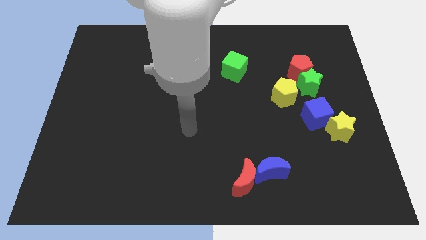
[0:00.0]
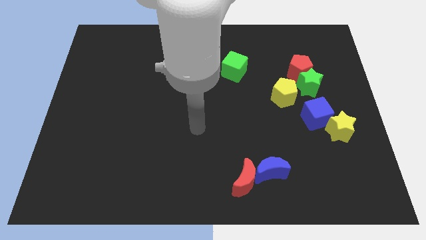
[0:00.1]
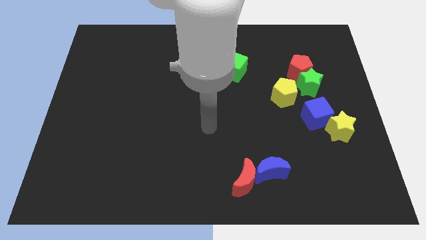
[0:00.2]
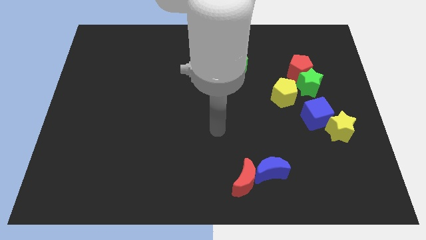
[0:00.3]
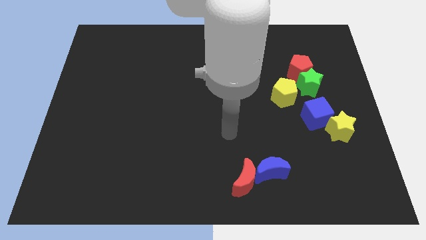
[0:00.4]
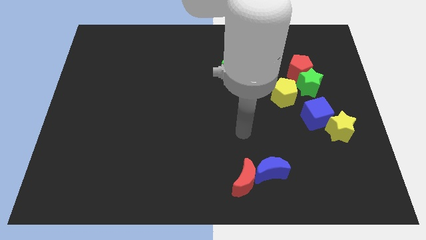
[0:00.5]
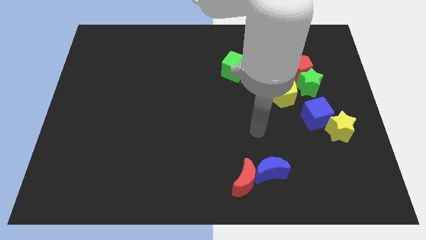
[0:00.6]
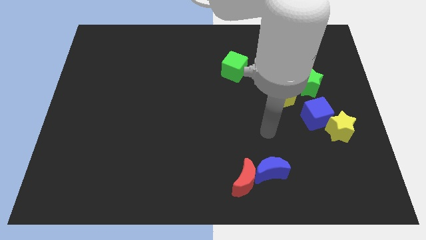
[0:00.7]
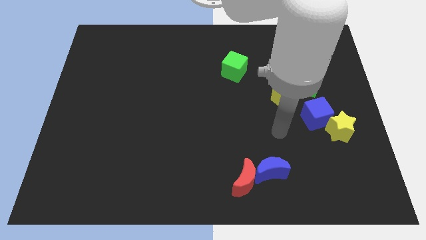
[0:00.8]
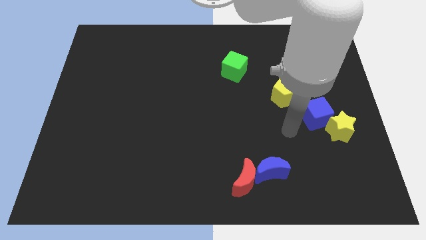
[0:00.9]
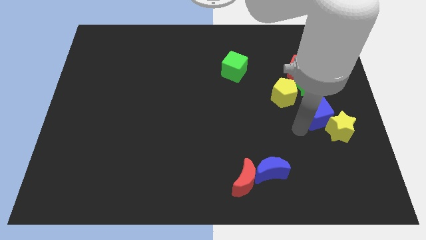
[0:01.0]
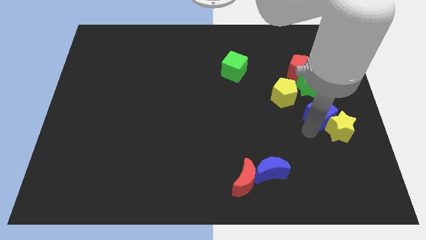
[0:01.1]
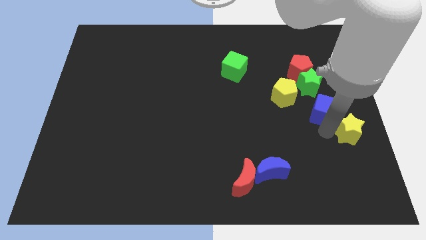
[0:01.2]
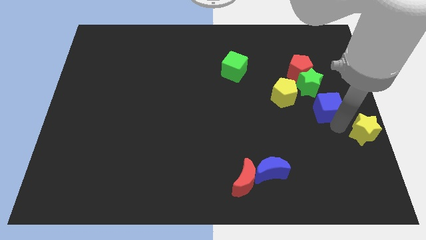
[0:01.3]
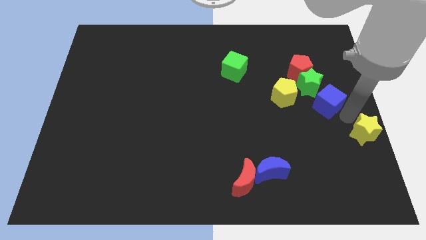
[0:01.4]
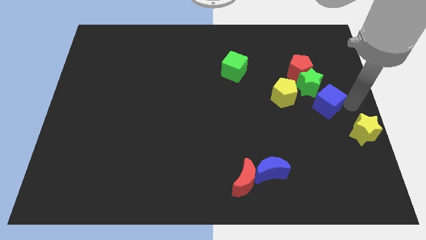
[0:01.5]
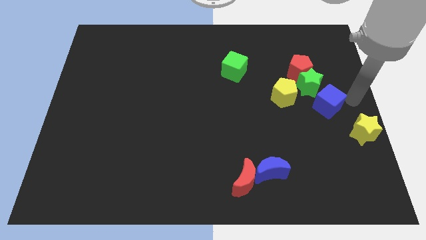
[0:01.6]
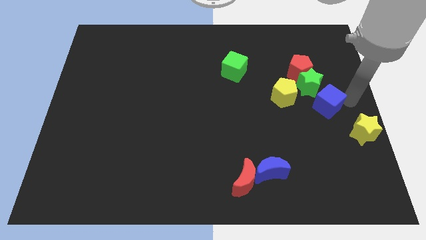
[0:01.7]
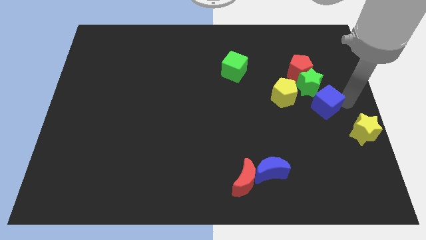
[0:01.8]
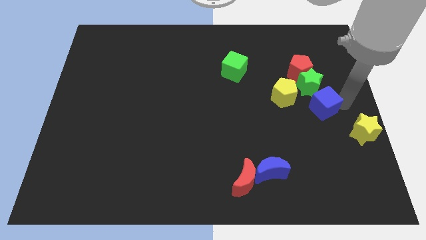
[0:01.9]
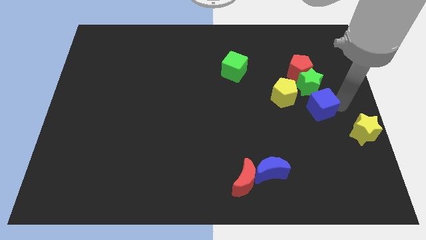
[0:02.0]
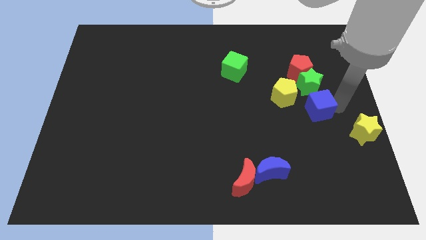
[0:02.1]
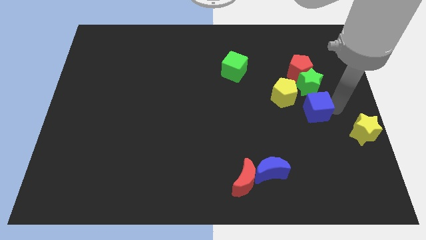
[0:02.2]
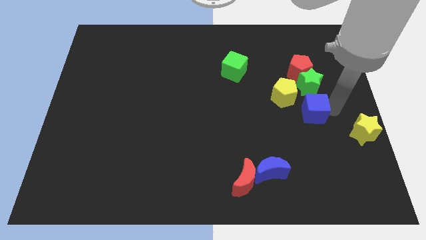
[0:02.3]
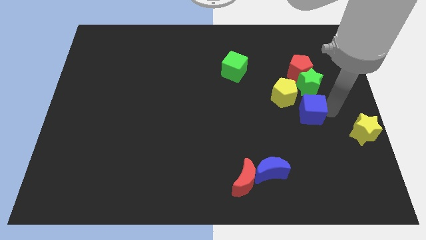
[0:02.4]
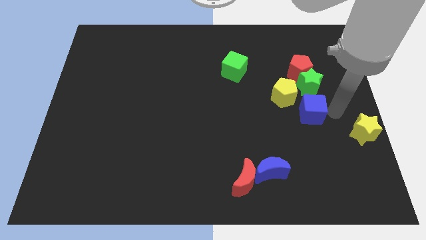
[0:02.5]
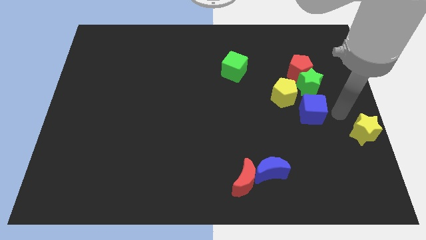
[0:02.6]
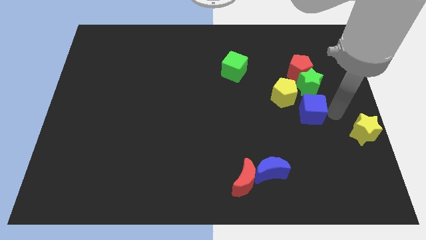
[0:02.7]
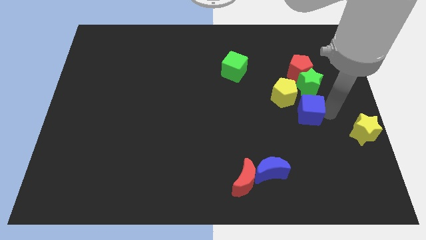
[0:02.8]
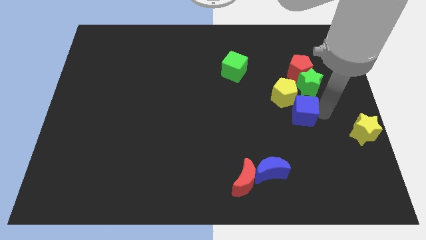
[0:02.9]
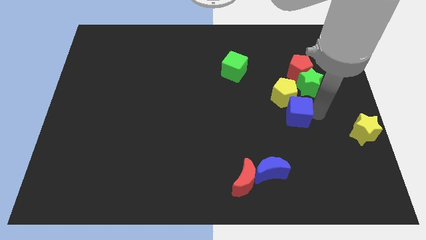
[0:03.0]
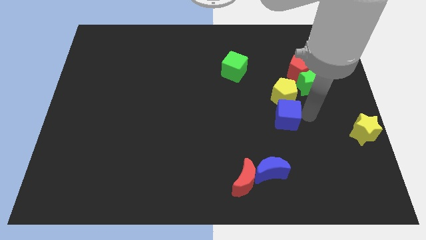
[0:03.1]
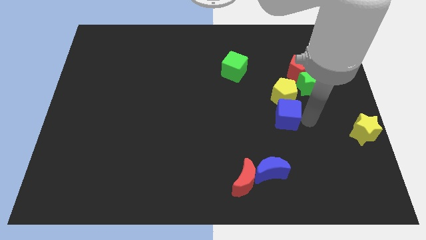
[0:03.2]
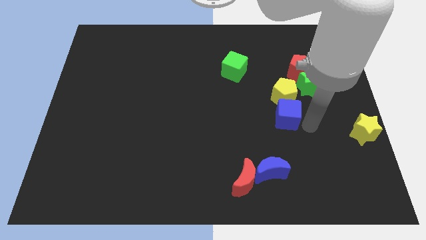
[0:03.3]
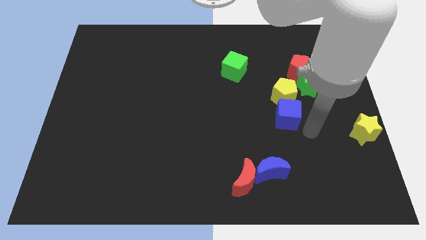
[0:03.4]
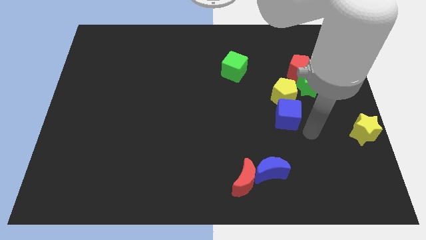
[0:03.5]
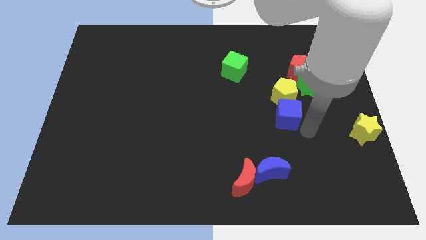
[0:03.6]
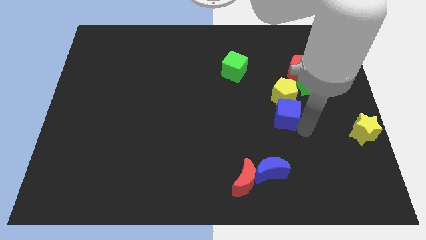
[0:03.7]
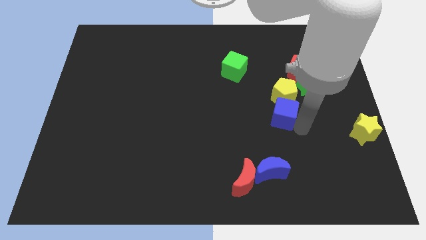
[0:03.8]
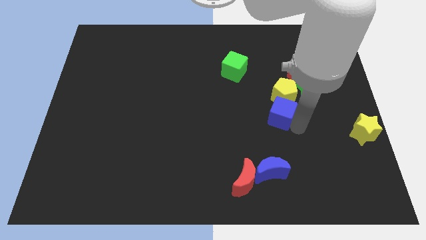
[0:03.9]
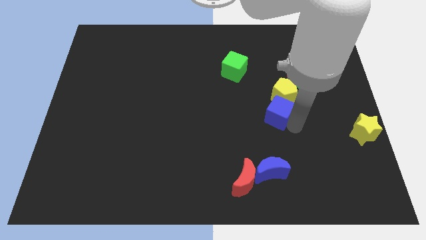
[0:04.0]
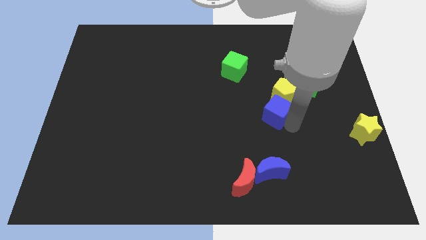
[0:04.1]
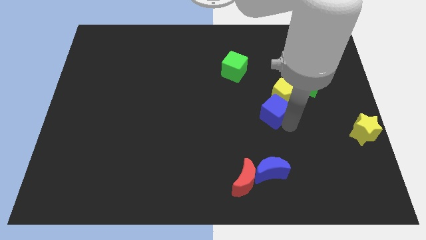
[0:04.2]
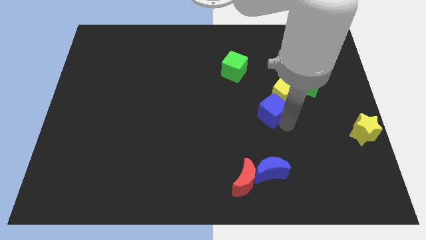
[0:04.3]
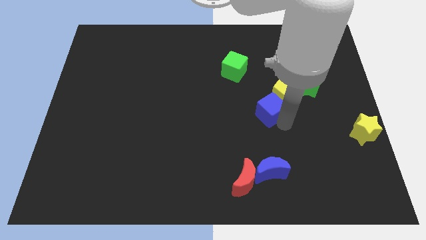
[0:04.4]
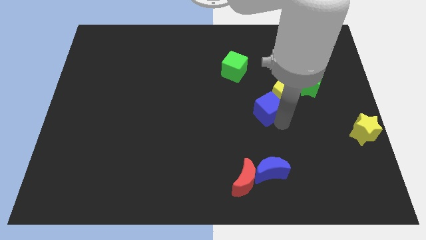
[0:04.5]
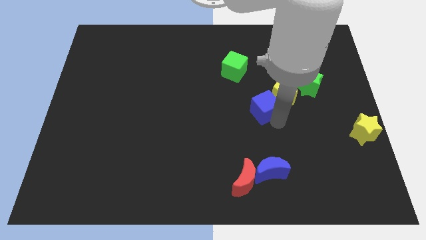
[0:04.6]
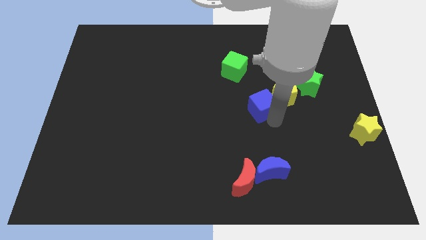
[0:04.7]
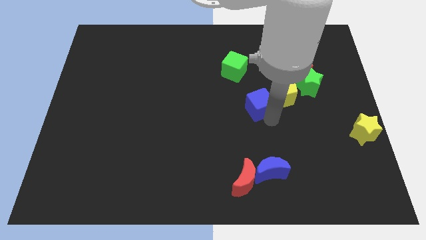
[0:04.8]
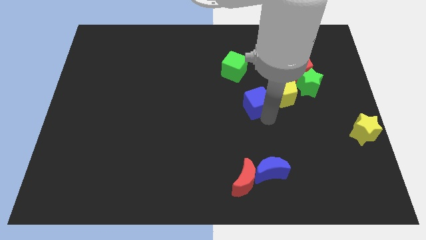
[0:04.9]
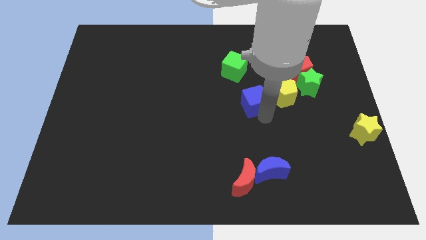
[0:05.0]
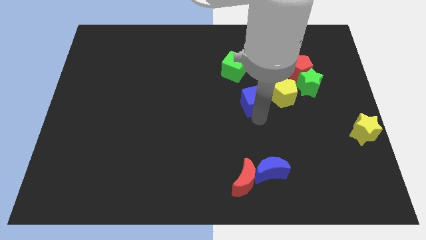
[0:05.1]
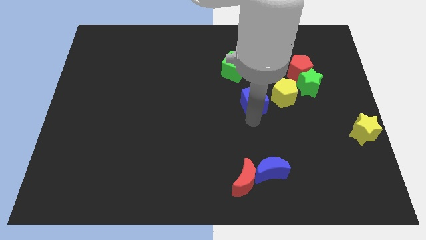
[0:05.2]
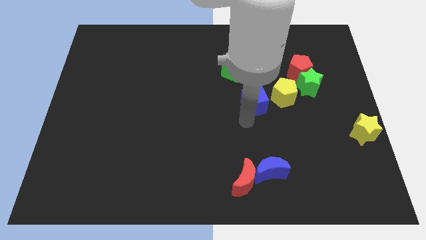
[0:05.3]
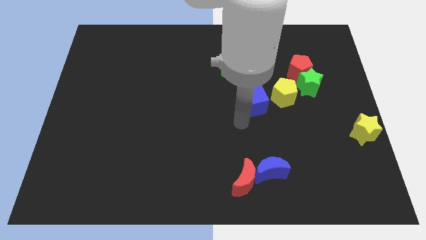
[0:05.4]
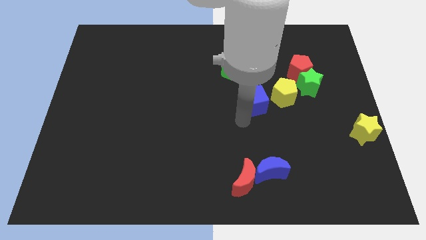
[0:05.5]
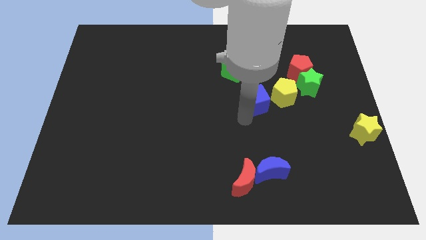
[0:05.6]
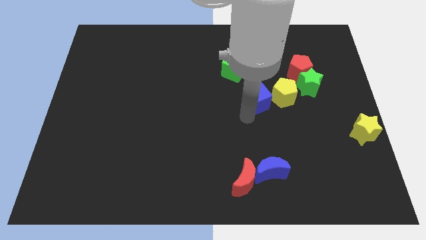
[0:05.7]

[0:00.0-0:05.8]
slide the blue cube just left of the green star
